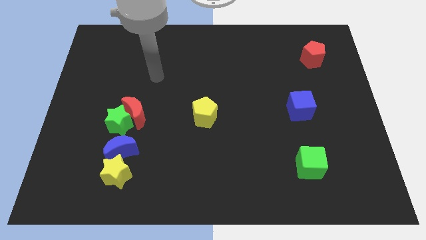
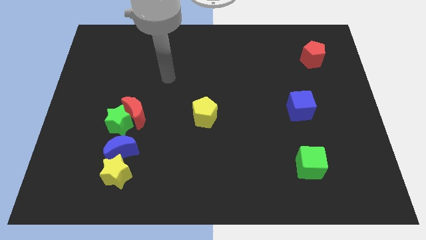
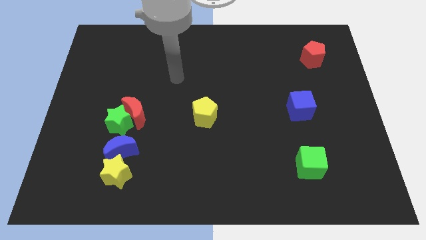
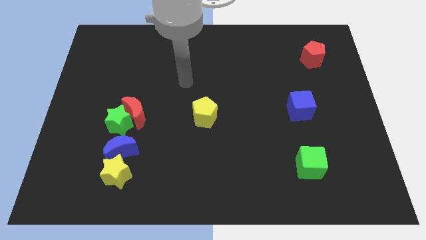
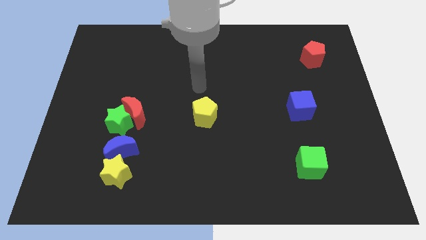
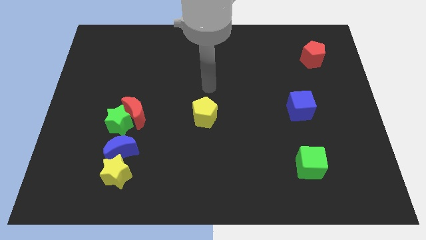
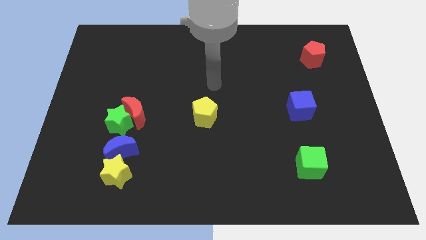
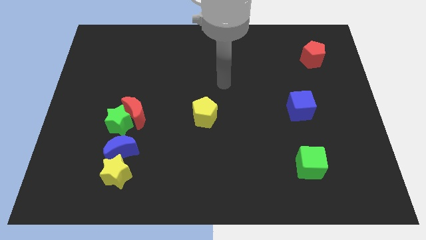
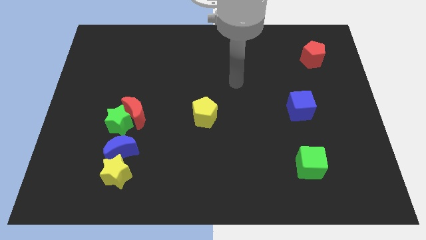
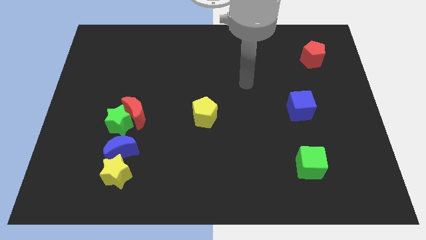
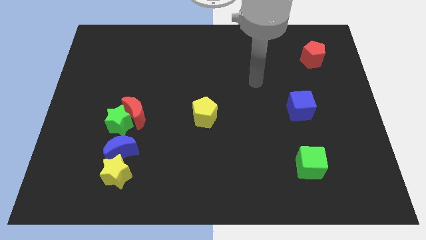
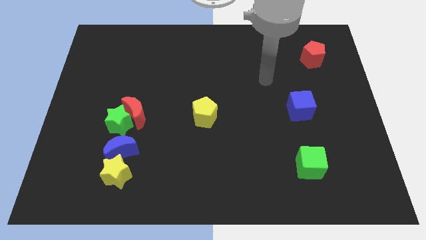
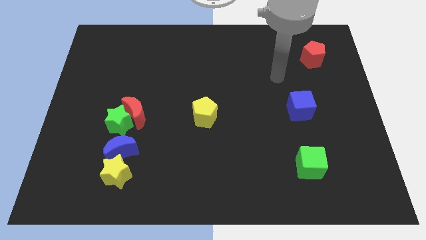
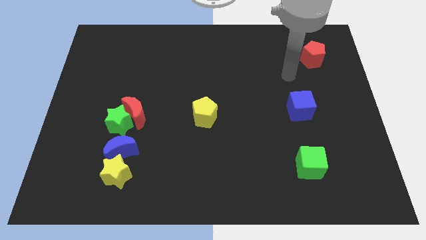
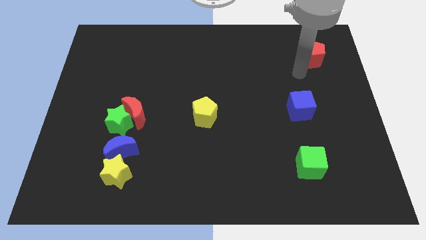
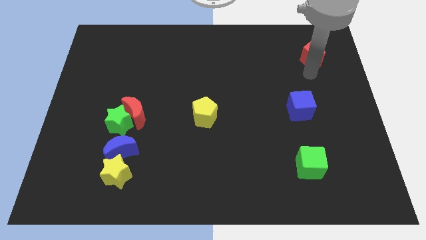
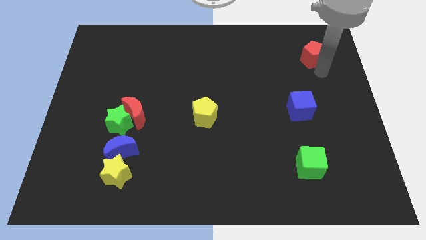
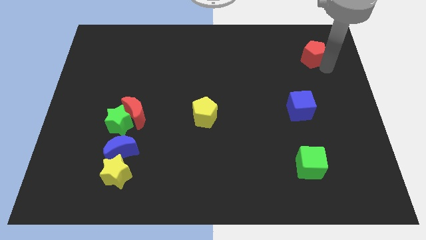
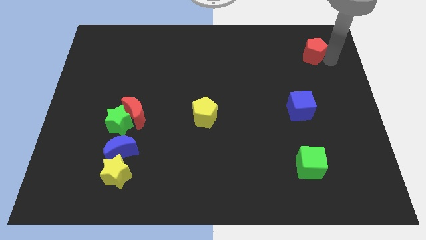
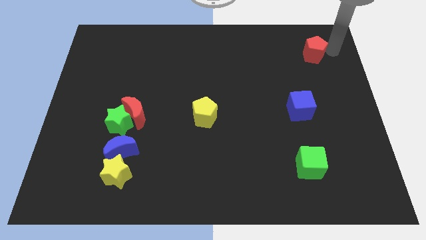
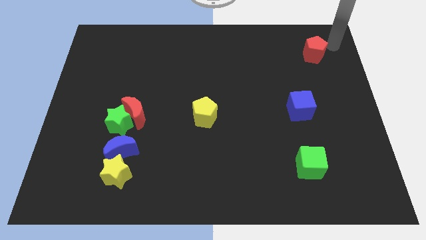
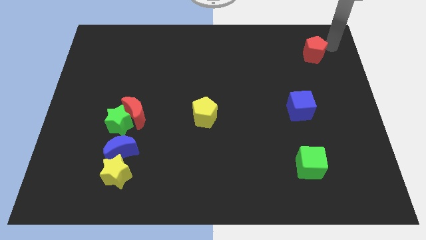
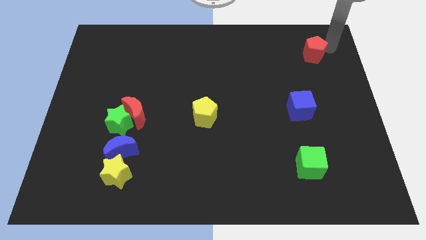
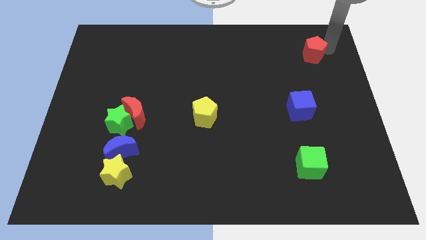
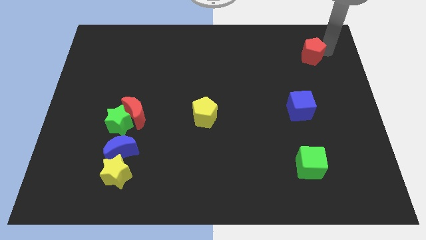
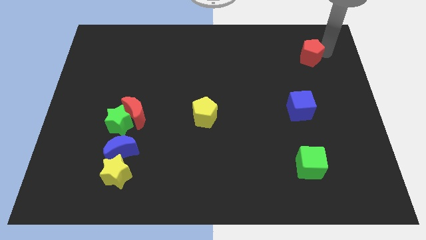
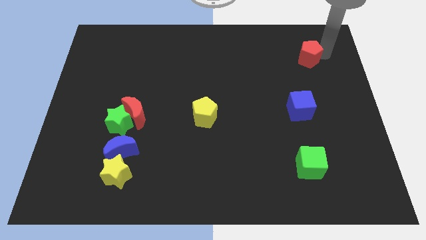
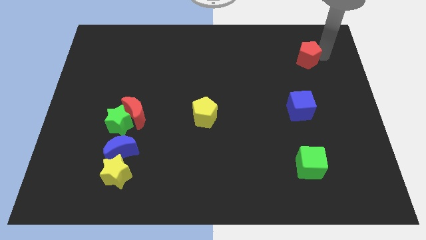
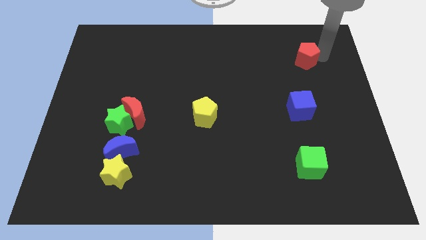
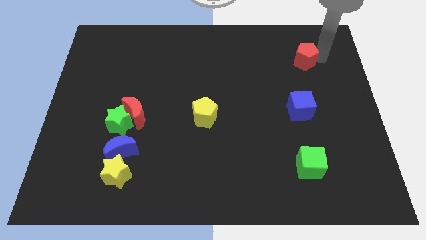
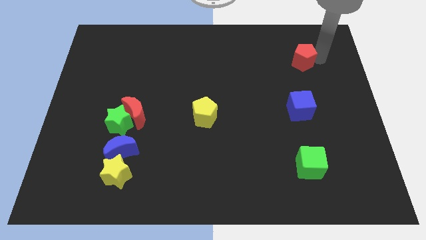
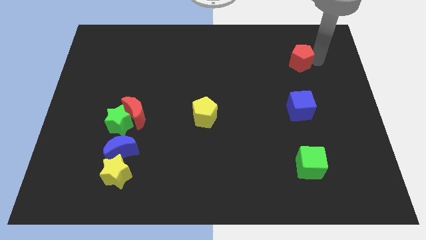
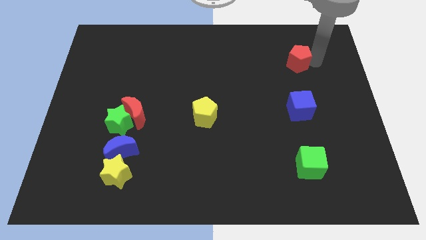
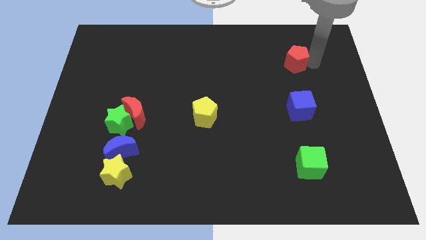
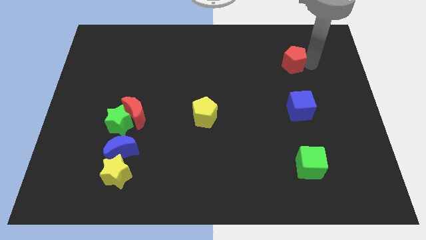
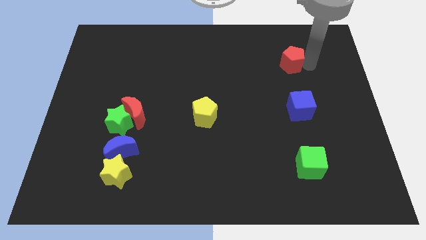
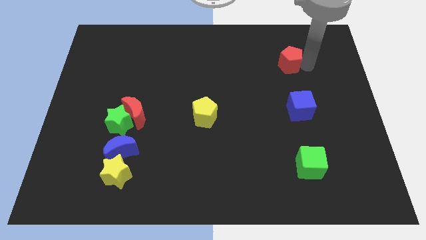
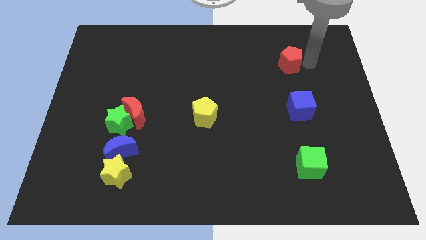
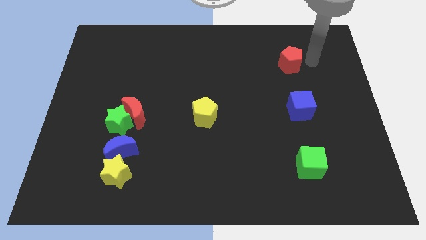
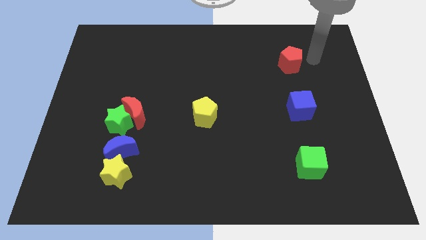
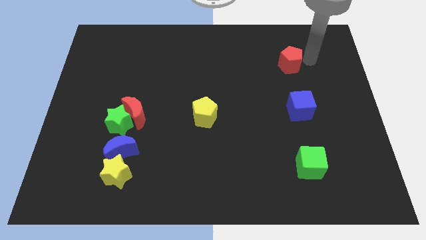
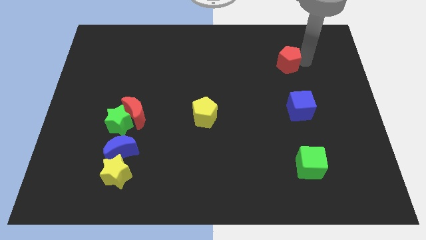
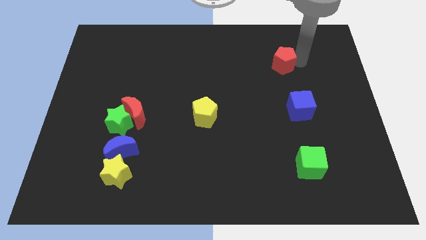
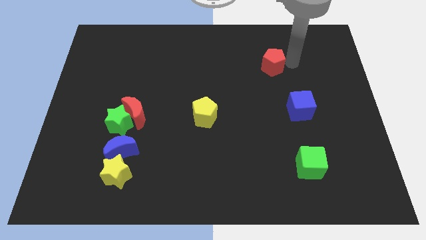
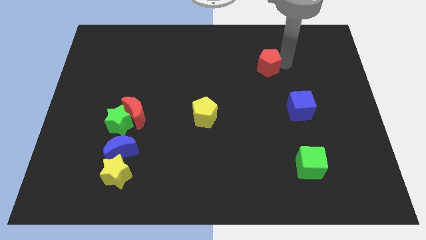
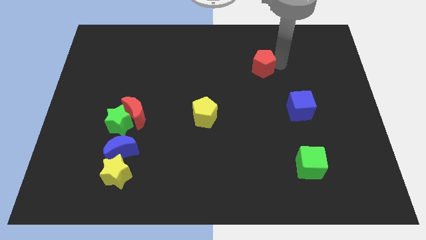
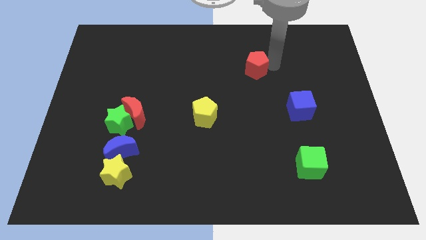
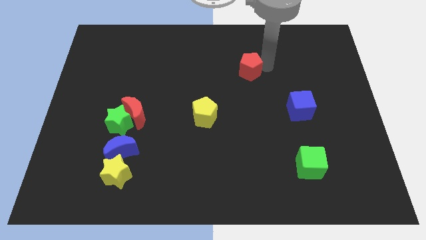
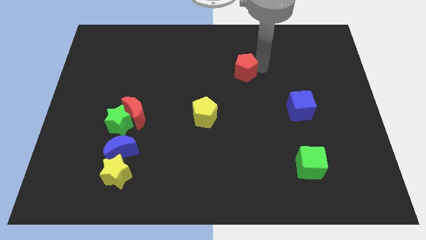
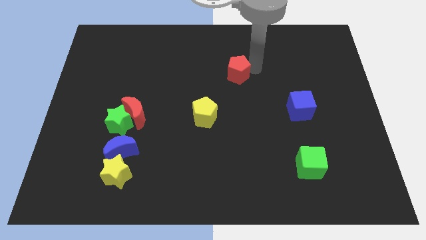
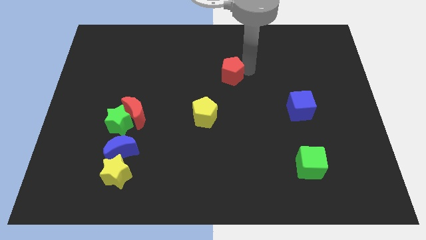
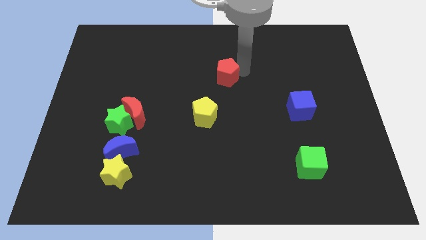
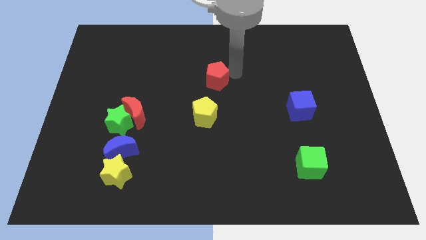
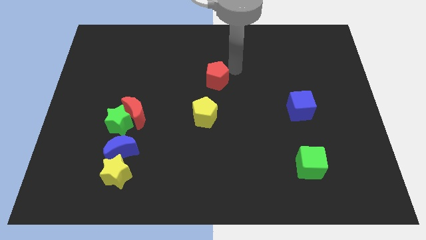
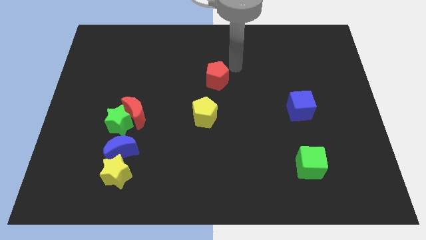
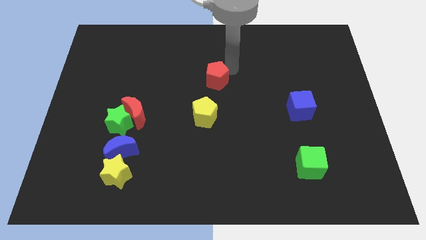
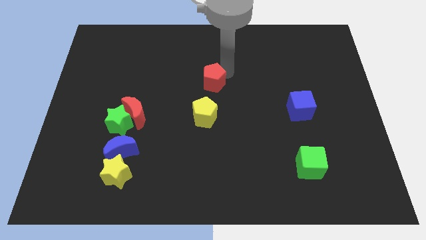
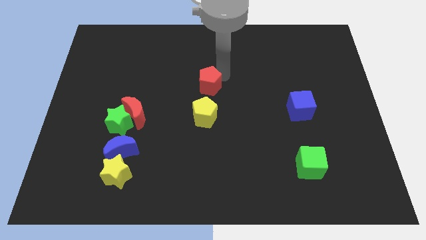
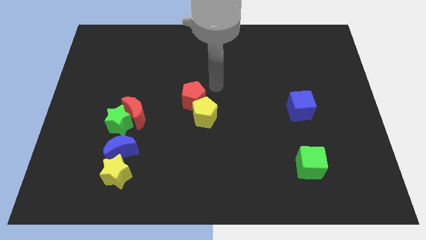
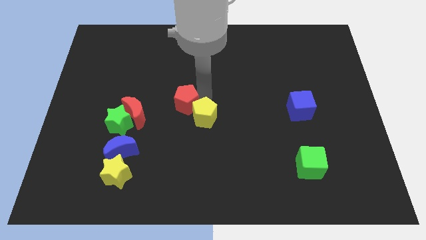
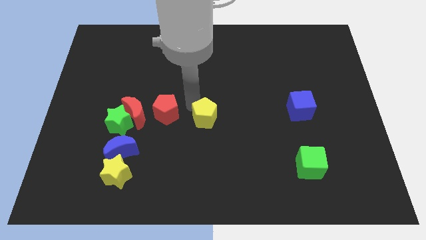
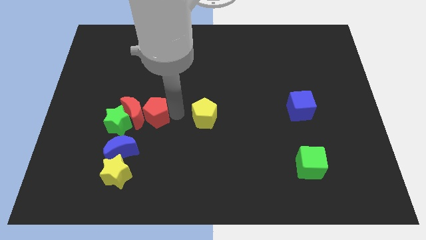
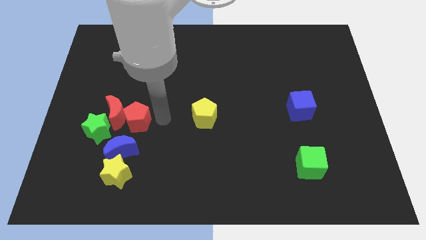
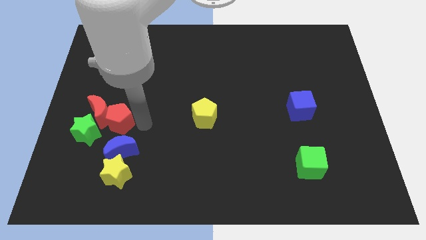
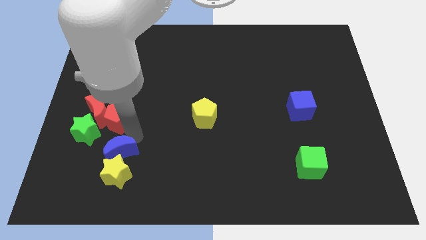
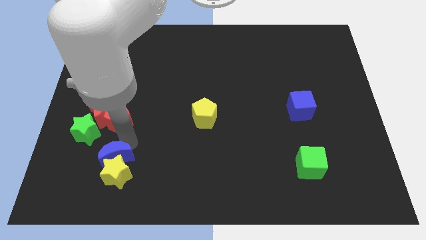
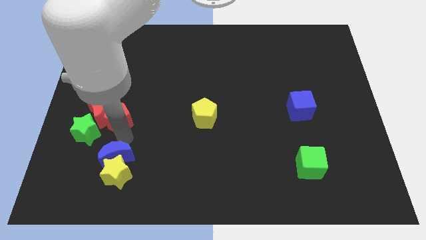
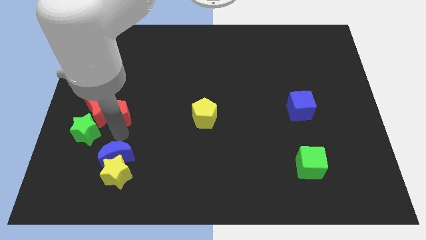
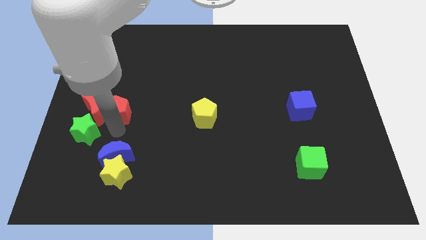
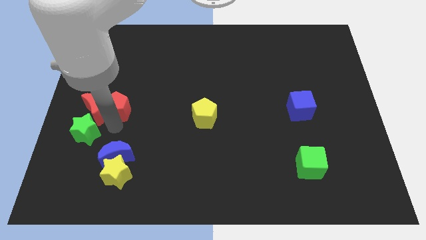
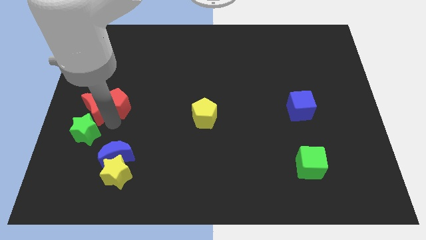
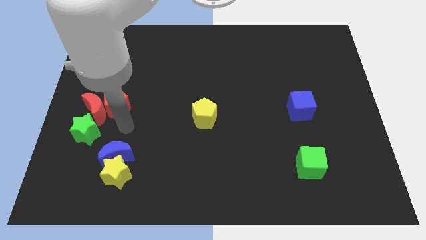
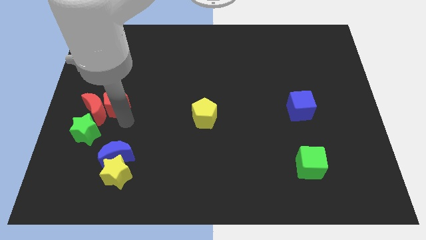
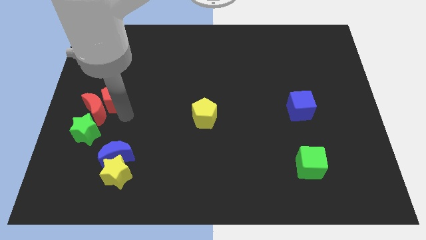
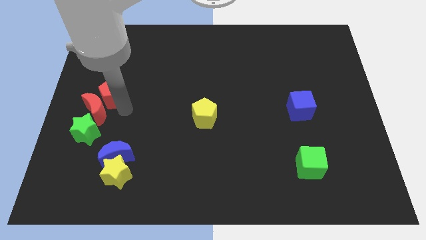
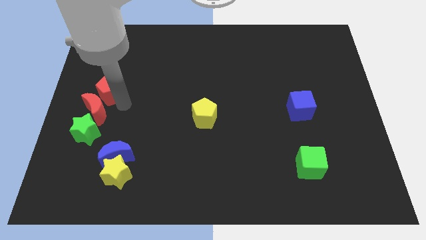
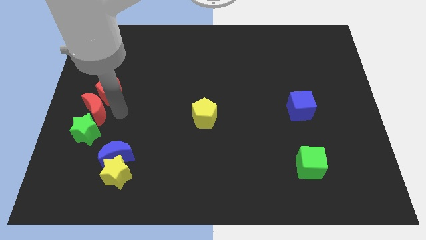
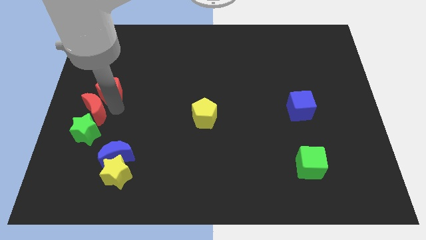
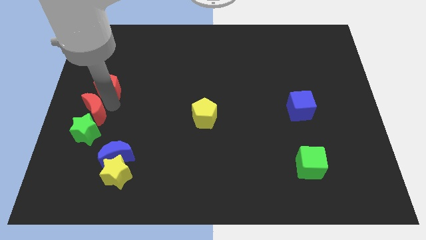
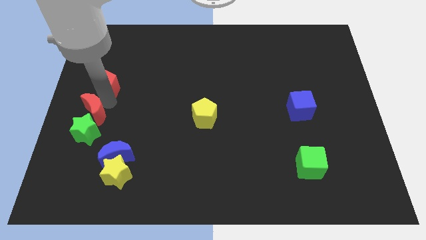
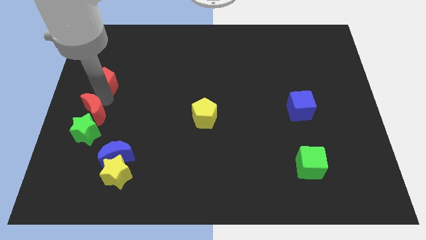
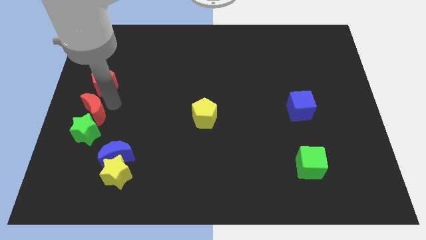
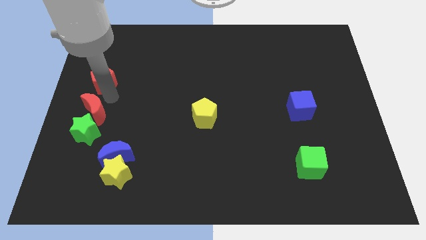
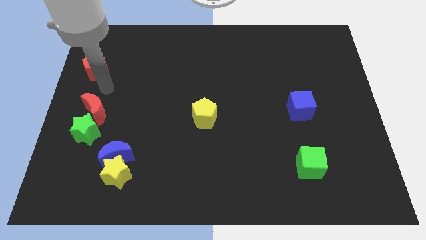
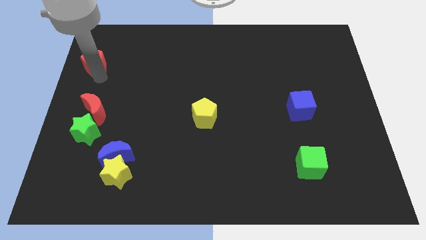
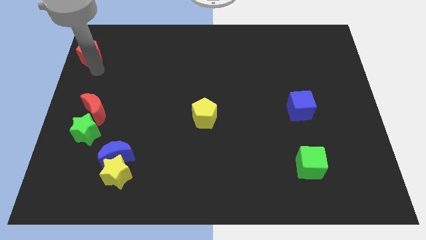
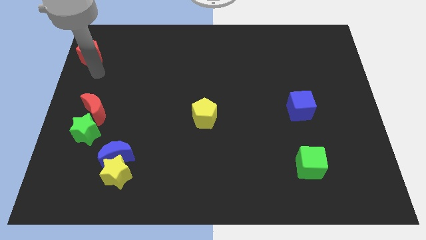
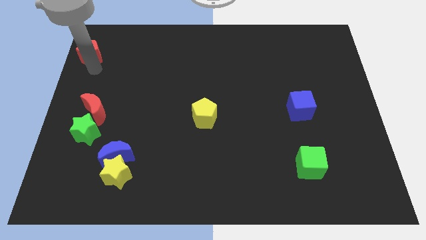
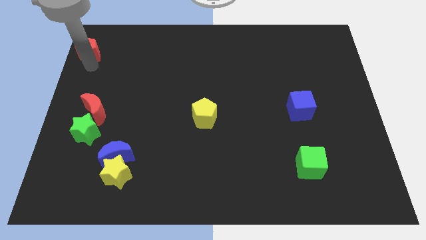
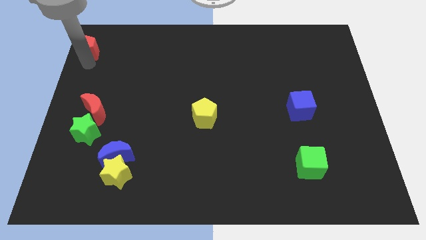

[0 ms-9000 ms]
push the red pentagon to the top left
